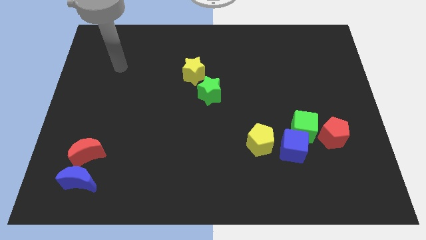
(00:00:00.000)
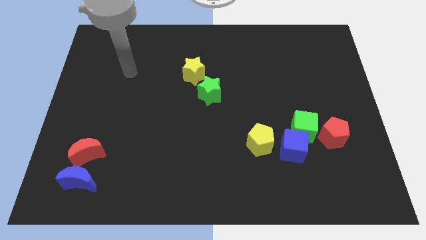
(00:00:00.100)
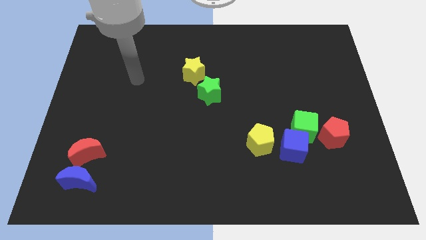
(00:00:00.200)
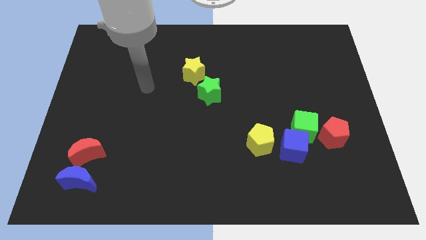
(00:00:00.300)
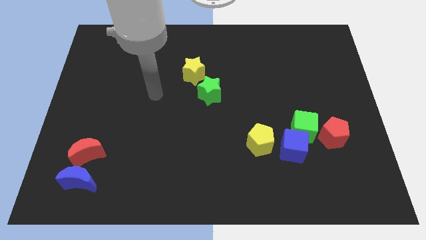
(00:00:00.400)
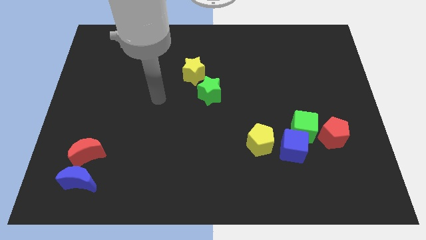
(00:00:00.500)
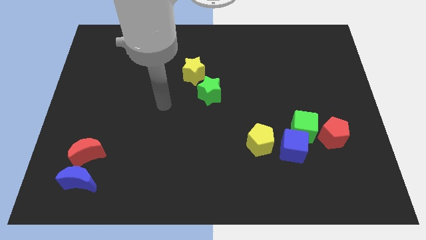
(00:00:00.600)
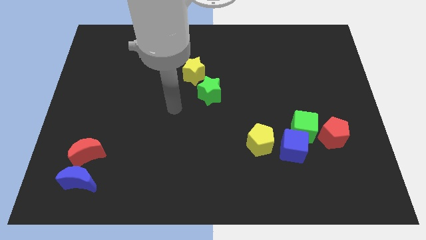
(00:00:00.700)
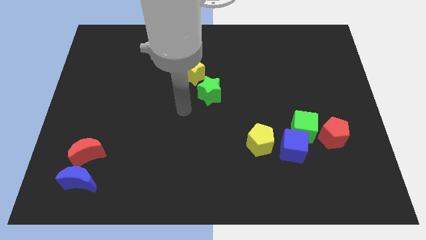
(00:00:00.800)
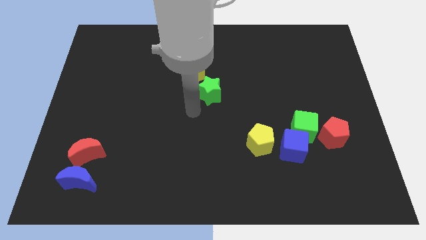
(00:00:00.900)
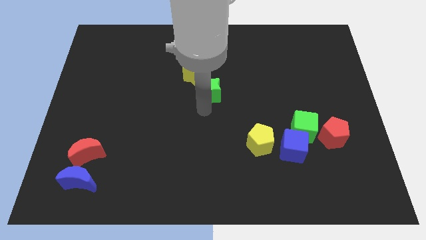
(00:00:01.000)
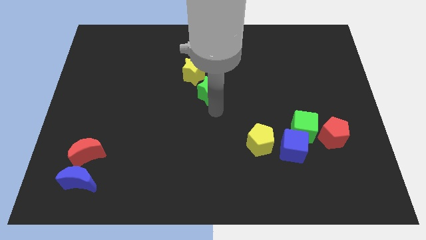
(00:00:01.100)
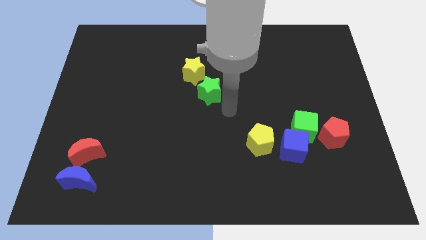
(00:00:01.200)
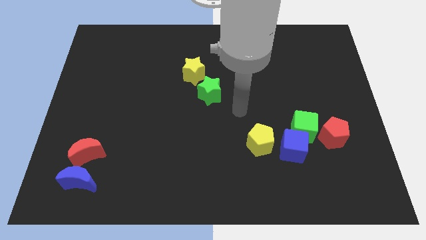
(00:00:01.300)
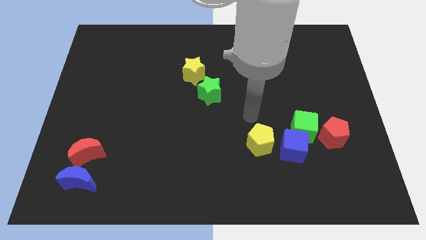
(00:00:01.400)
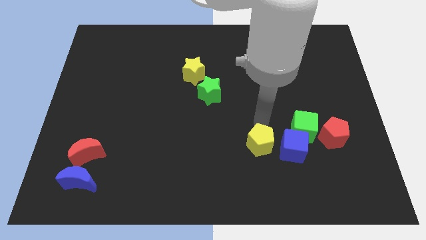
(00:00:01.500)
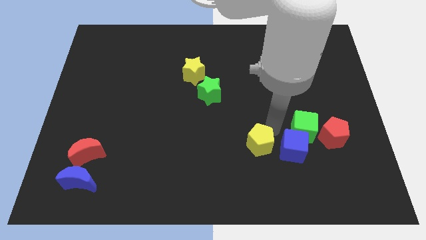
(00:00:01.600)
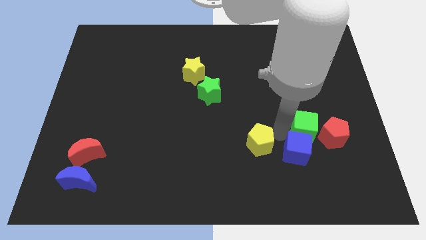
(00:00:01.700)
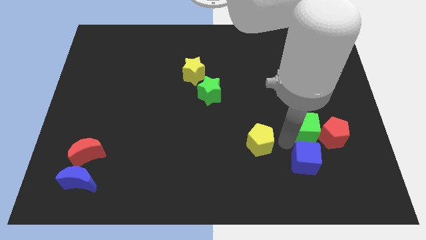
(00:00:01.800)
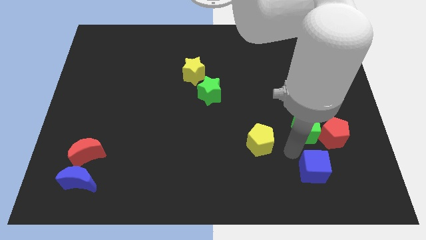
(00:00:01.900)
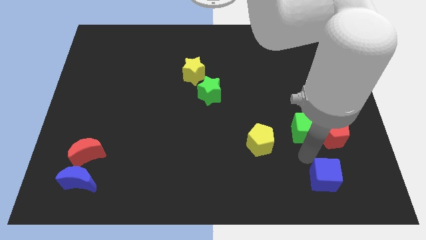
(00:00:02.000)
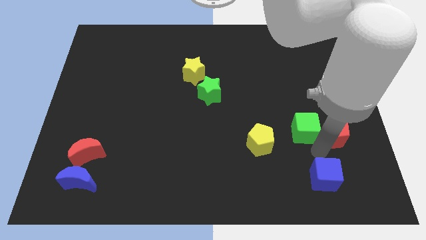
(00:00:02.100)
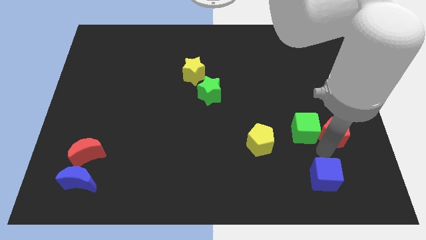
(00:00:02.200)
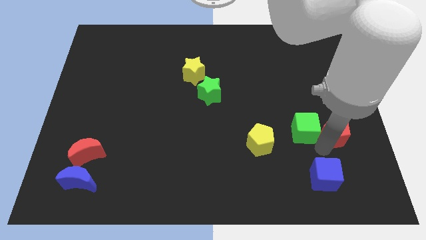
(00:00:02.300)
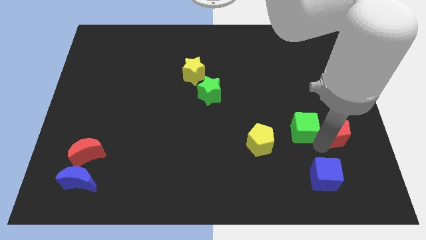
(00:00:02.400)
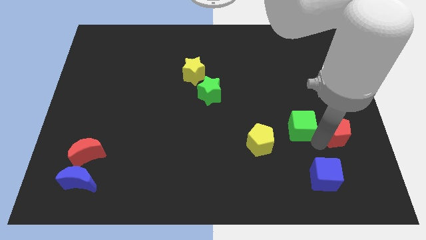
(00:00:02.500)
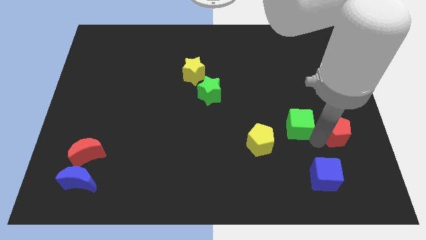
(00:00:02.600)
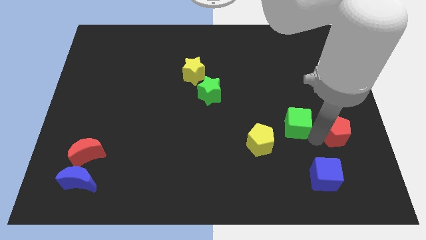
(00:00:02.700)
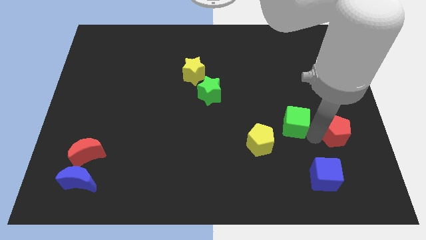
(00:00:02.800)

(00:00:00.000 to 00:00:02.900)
pull the green cube apart from the blue cube and red pentagon

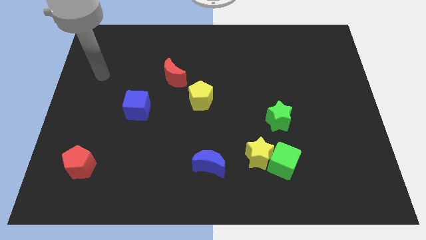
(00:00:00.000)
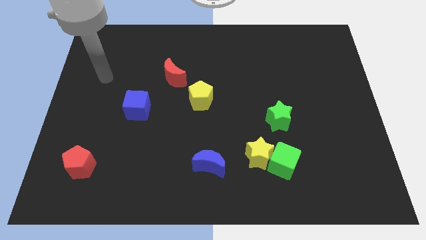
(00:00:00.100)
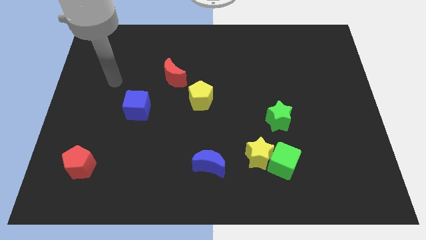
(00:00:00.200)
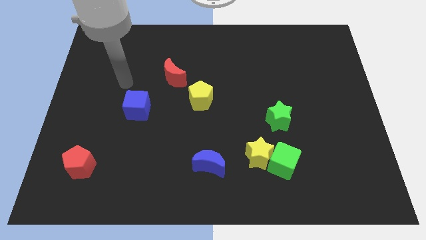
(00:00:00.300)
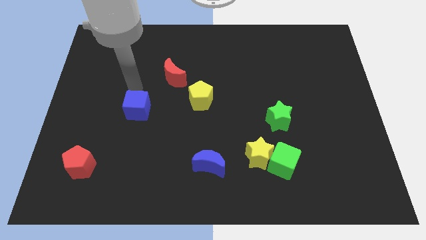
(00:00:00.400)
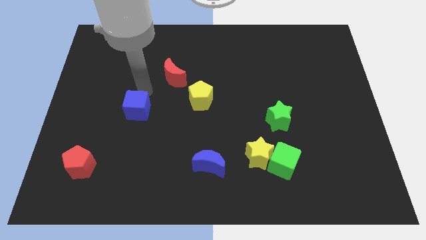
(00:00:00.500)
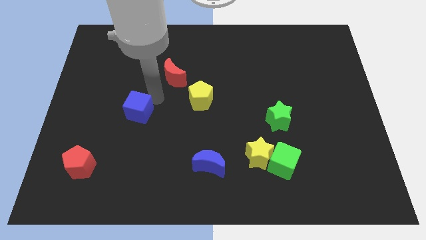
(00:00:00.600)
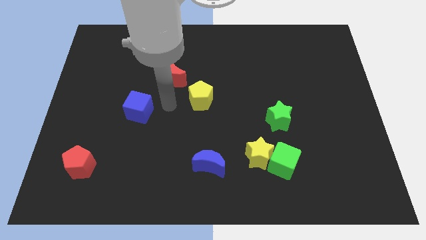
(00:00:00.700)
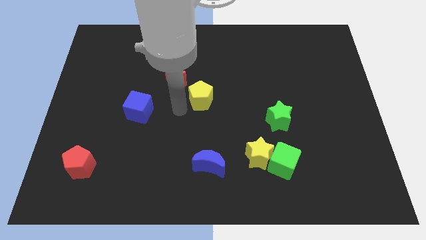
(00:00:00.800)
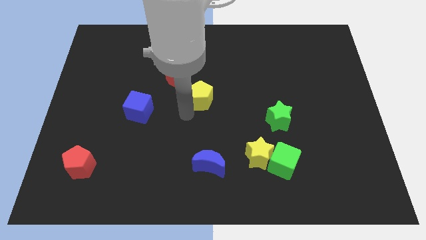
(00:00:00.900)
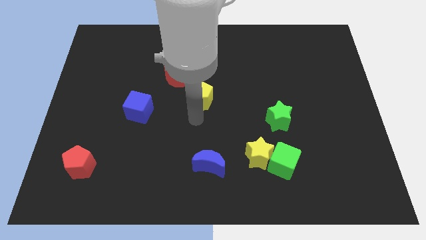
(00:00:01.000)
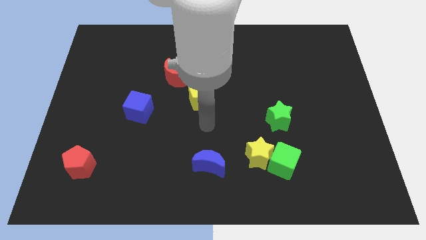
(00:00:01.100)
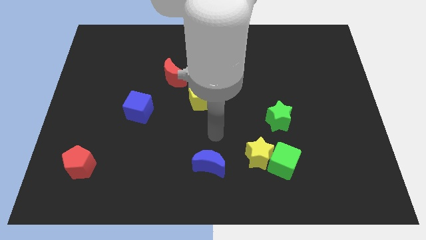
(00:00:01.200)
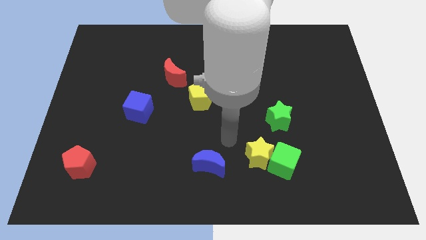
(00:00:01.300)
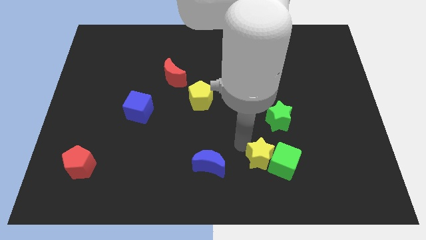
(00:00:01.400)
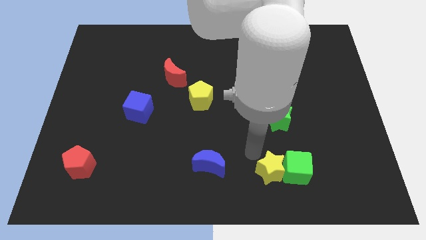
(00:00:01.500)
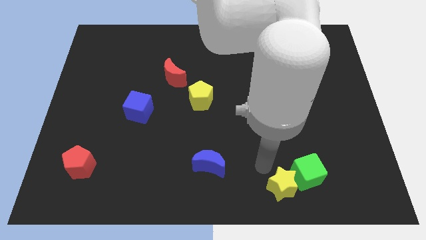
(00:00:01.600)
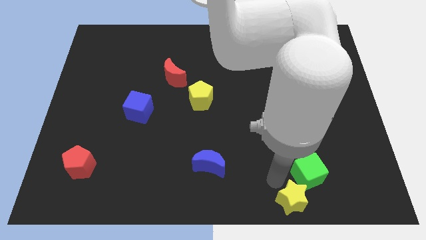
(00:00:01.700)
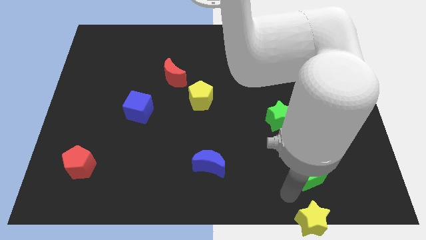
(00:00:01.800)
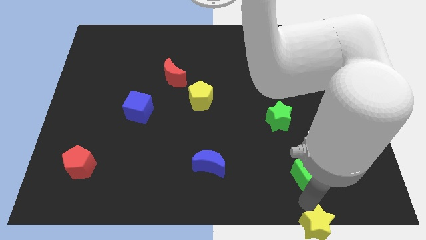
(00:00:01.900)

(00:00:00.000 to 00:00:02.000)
separate the green cube from the yellow star

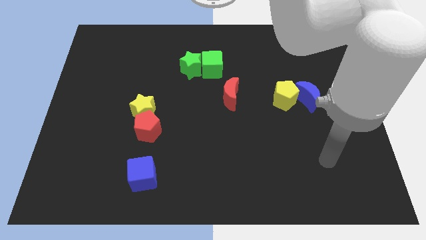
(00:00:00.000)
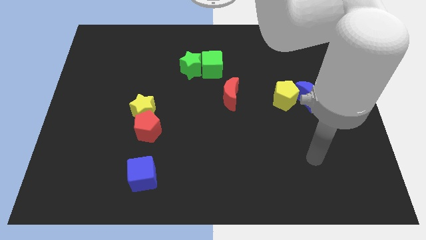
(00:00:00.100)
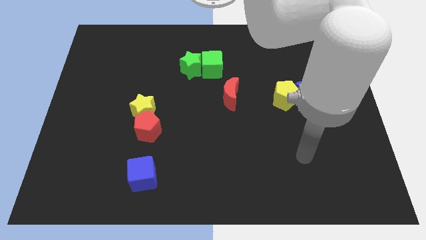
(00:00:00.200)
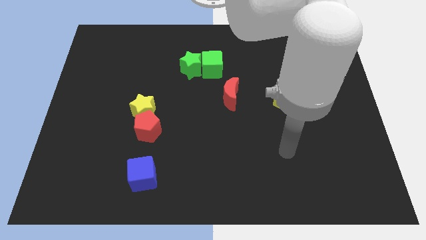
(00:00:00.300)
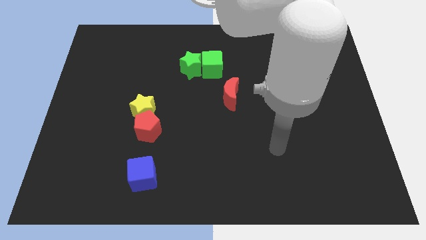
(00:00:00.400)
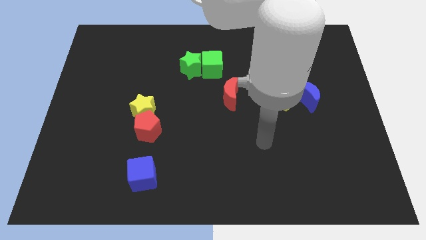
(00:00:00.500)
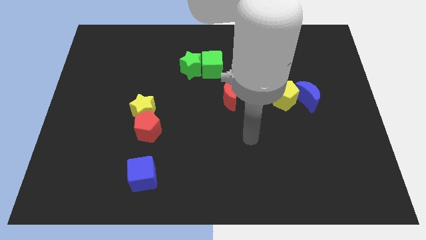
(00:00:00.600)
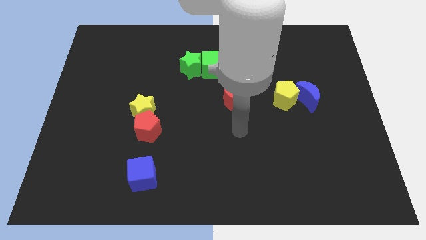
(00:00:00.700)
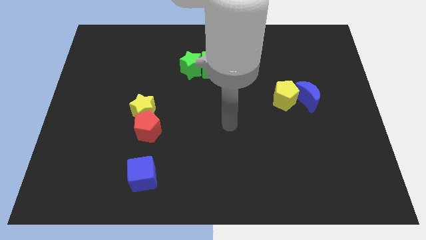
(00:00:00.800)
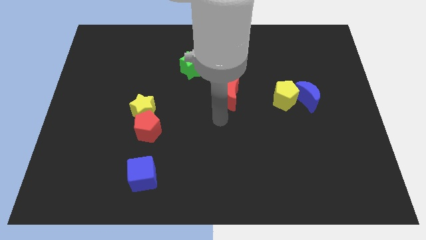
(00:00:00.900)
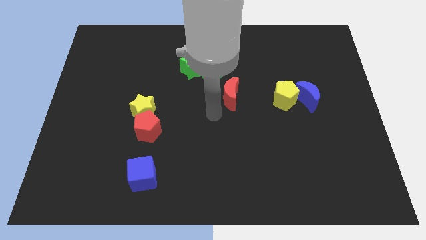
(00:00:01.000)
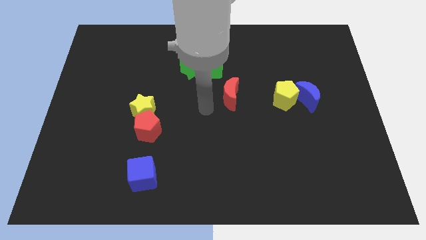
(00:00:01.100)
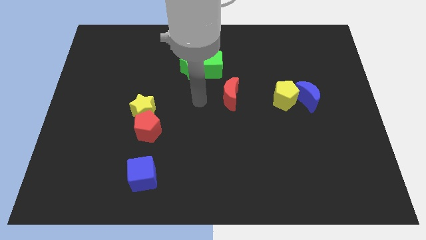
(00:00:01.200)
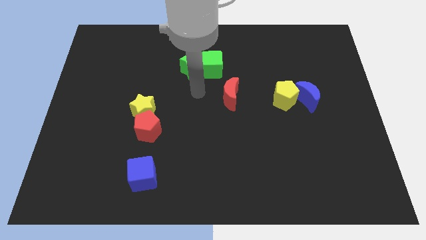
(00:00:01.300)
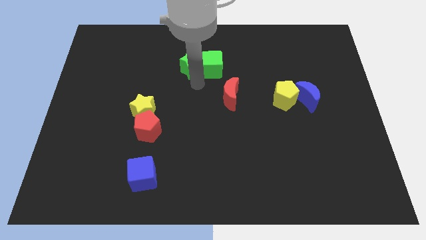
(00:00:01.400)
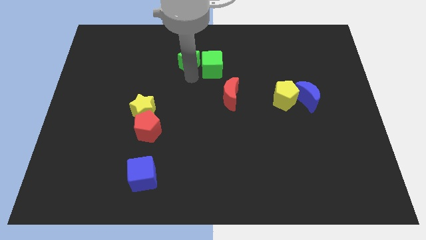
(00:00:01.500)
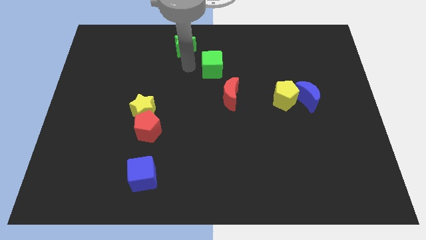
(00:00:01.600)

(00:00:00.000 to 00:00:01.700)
separate the green cube from the green star

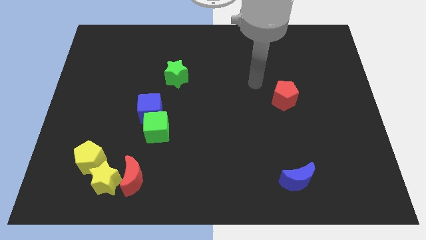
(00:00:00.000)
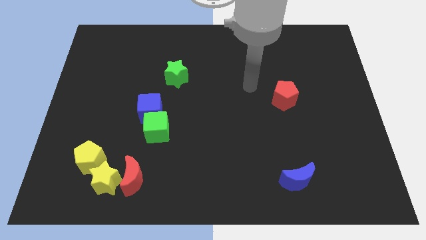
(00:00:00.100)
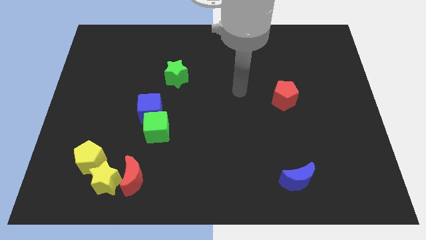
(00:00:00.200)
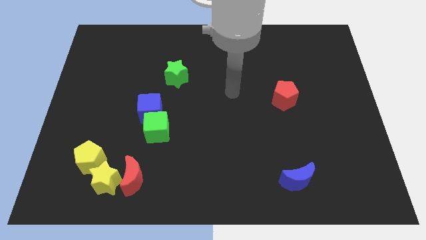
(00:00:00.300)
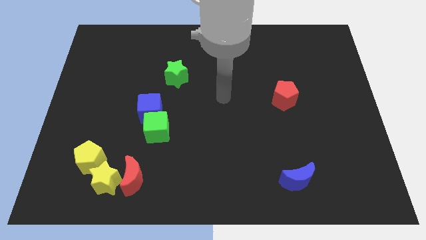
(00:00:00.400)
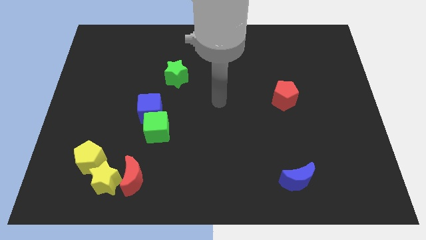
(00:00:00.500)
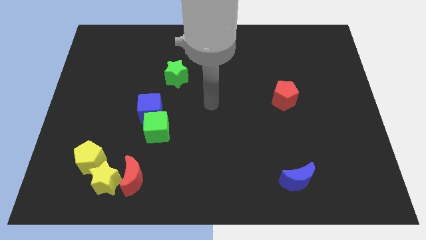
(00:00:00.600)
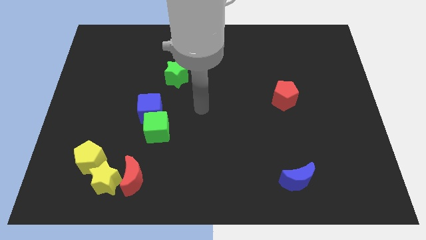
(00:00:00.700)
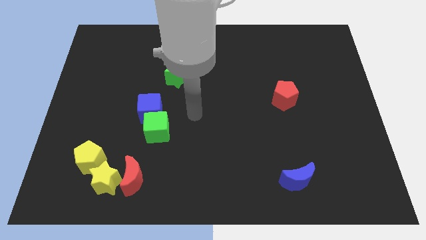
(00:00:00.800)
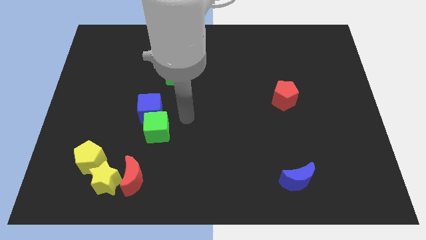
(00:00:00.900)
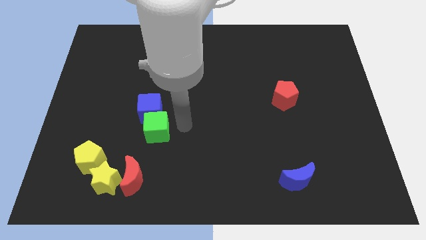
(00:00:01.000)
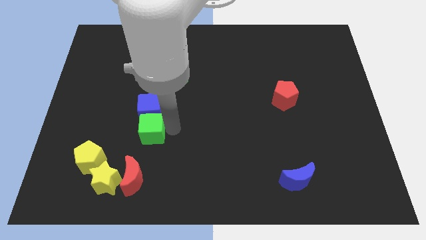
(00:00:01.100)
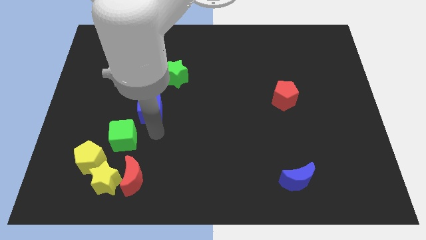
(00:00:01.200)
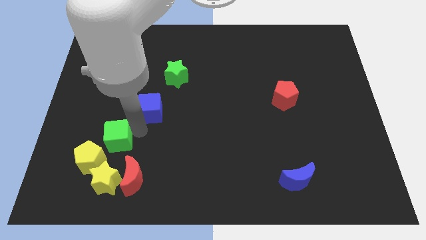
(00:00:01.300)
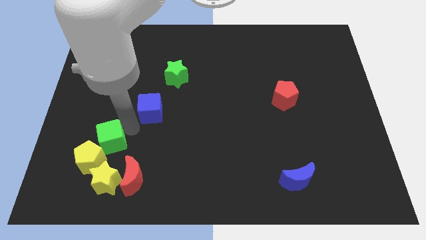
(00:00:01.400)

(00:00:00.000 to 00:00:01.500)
separate the blue cube from the green cube

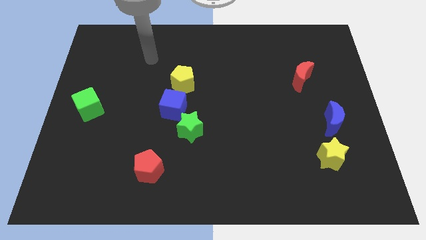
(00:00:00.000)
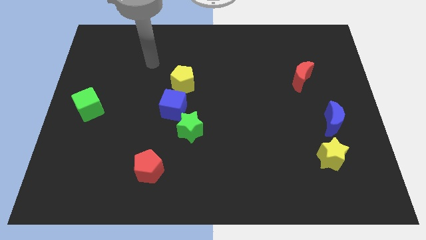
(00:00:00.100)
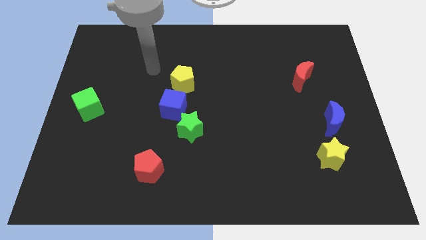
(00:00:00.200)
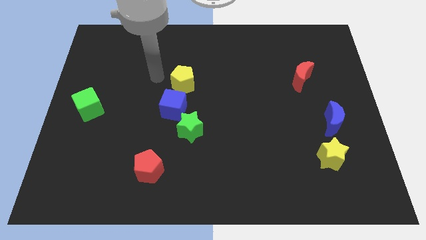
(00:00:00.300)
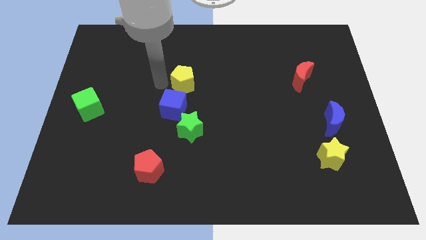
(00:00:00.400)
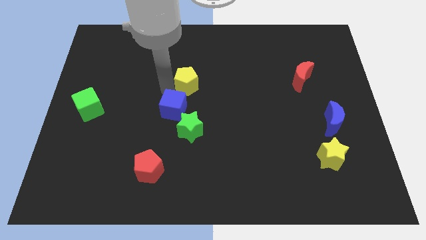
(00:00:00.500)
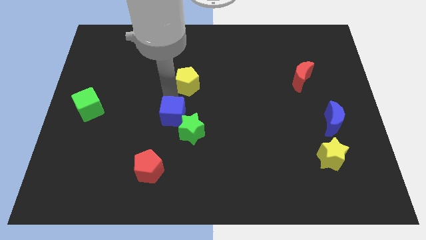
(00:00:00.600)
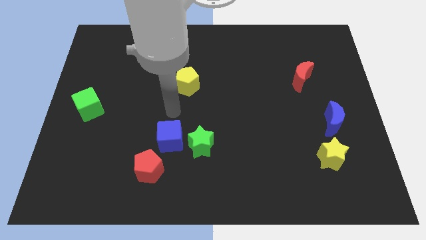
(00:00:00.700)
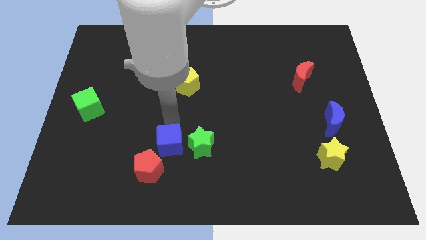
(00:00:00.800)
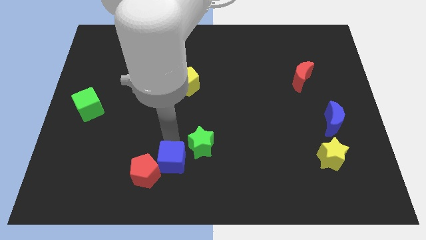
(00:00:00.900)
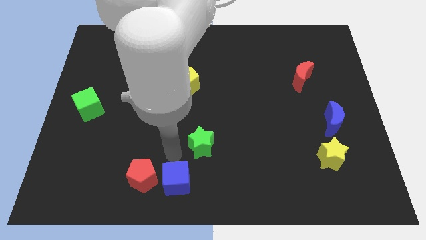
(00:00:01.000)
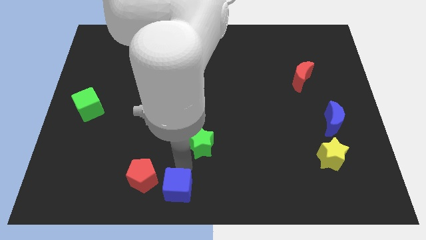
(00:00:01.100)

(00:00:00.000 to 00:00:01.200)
move the green star away from the blue cube
